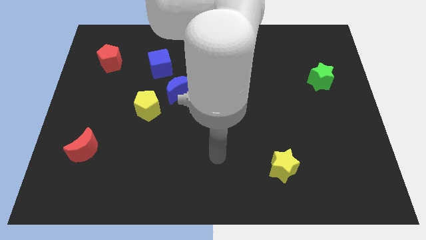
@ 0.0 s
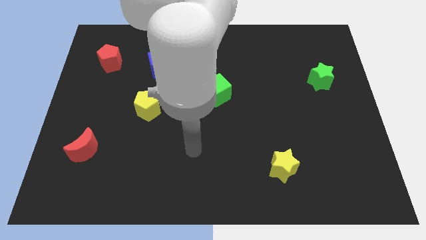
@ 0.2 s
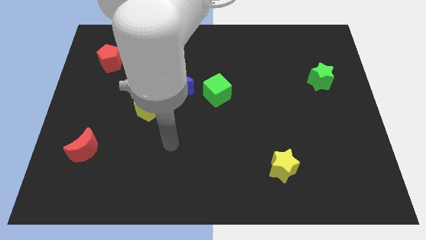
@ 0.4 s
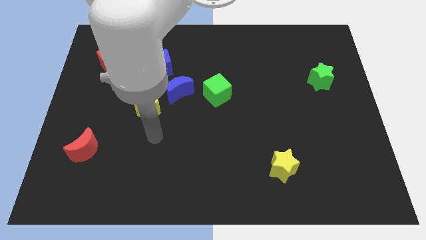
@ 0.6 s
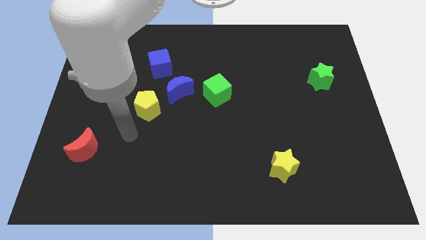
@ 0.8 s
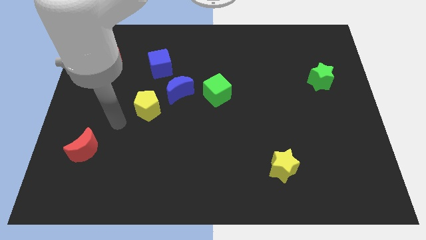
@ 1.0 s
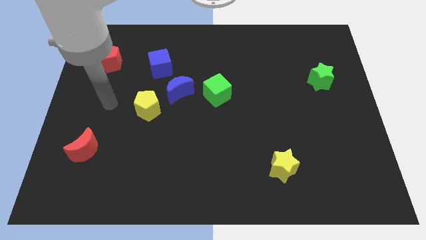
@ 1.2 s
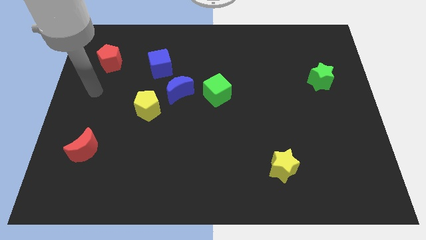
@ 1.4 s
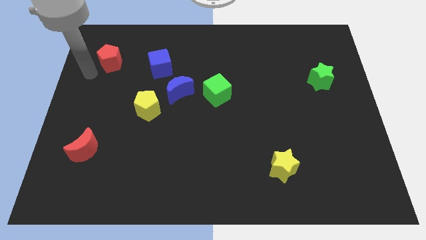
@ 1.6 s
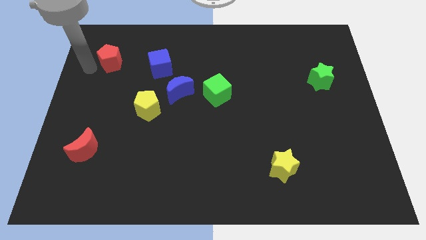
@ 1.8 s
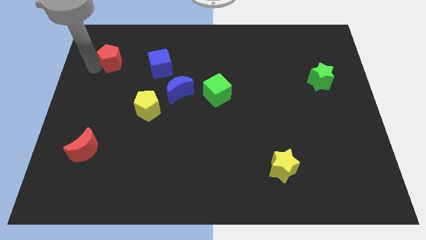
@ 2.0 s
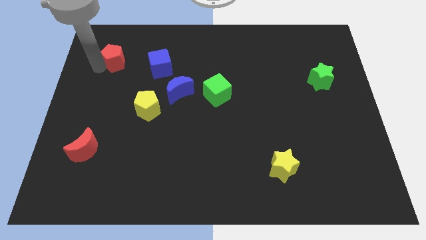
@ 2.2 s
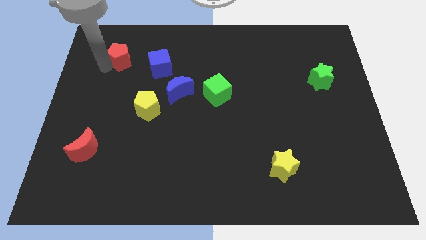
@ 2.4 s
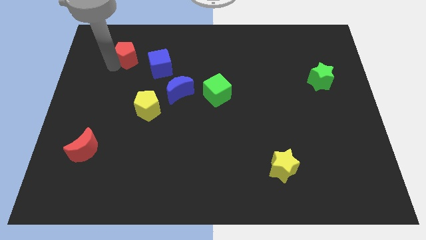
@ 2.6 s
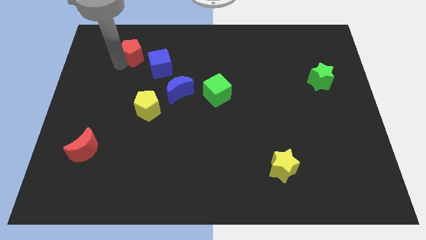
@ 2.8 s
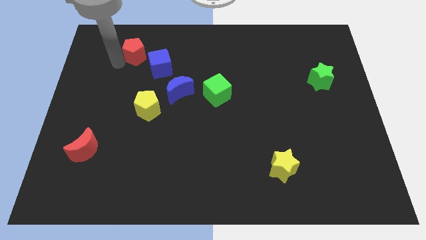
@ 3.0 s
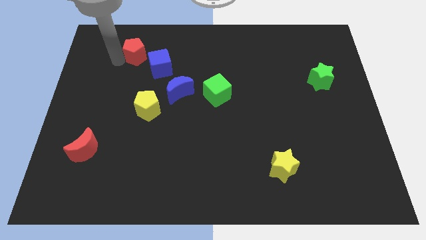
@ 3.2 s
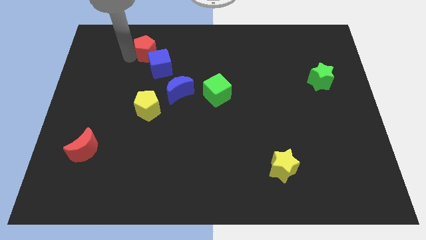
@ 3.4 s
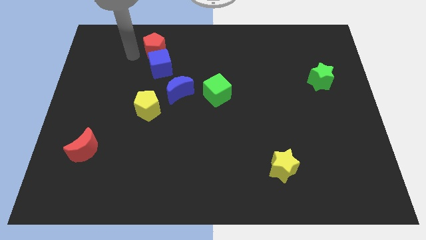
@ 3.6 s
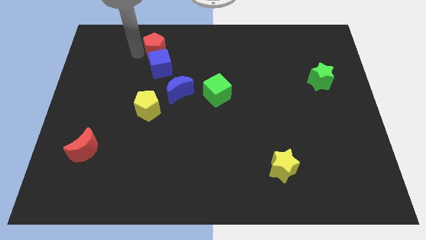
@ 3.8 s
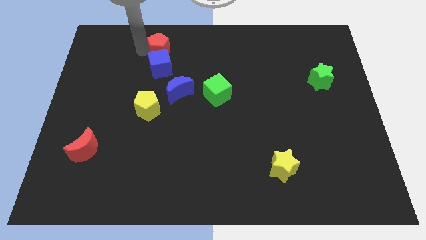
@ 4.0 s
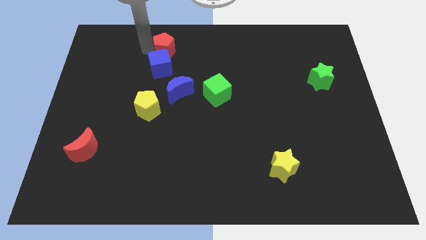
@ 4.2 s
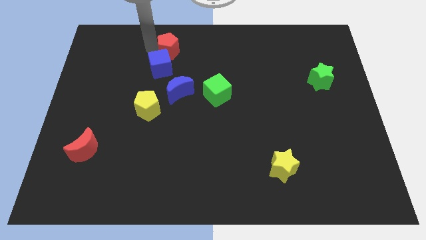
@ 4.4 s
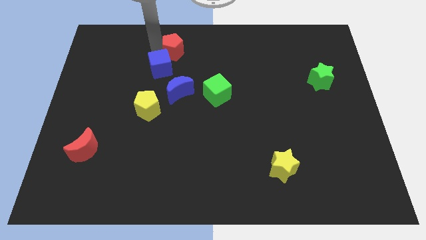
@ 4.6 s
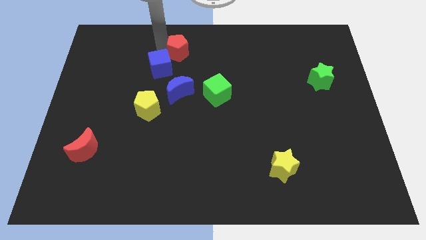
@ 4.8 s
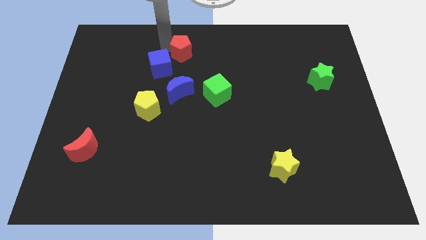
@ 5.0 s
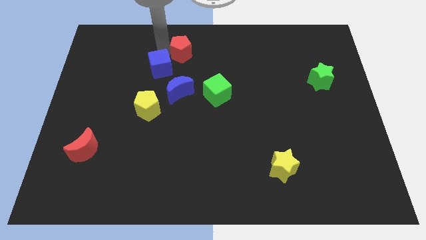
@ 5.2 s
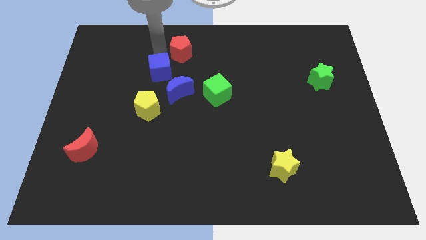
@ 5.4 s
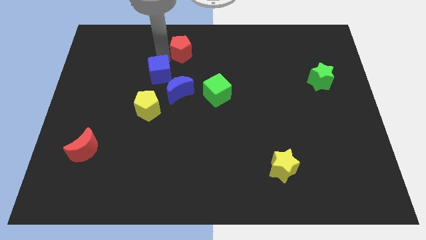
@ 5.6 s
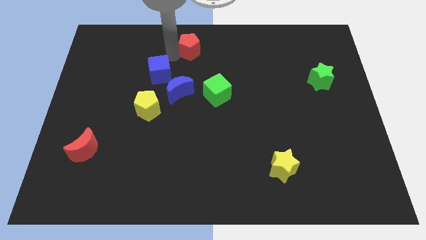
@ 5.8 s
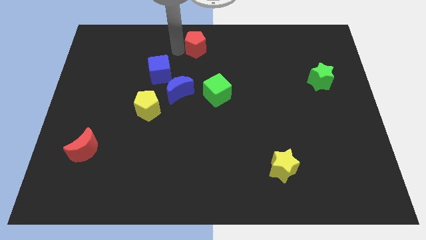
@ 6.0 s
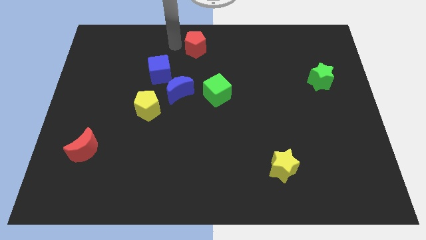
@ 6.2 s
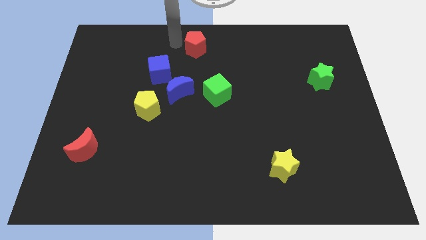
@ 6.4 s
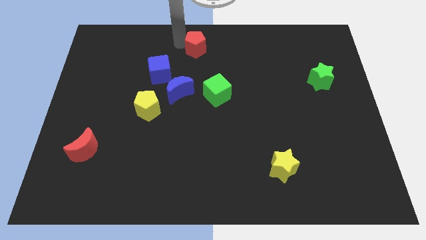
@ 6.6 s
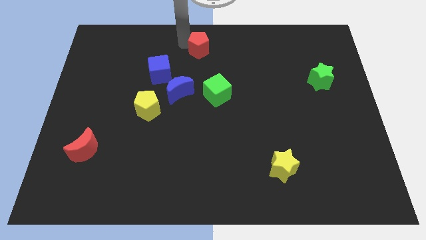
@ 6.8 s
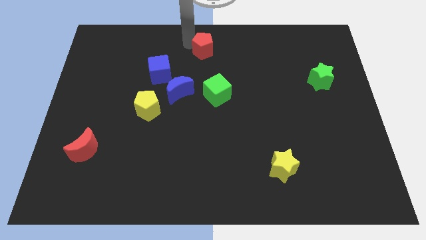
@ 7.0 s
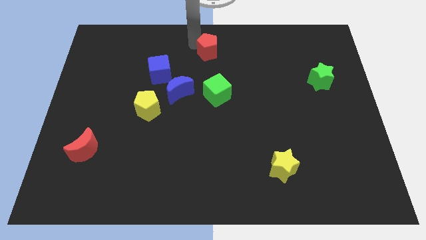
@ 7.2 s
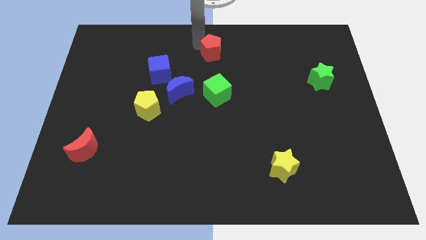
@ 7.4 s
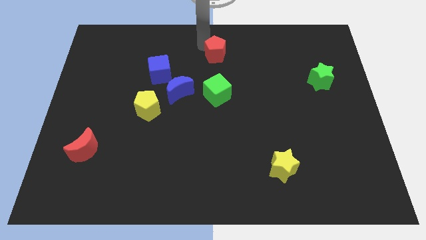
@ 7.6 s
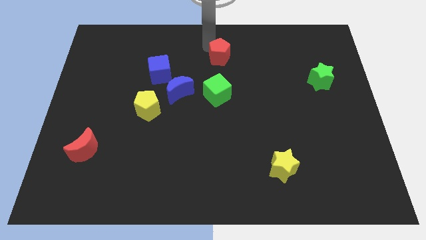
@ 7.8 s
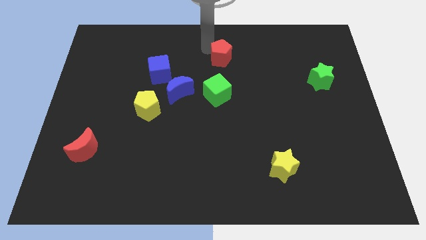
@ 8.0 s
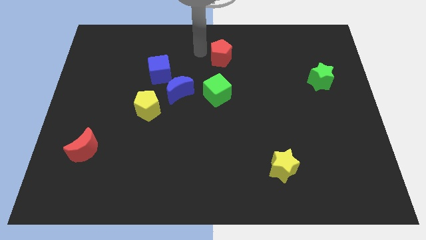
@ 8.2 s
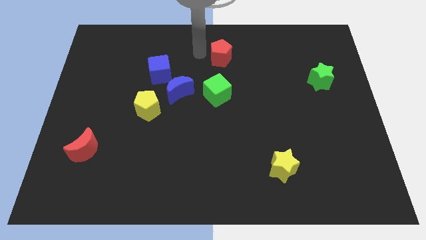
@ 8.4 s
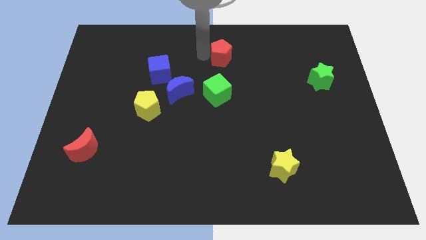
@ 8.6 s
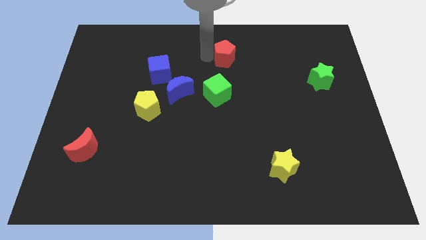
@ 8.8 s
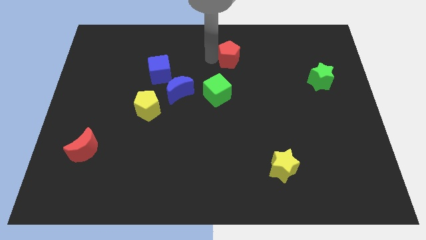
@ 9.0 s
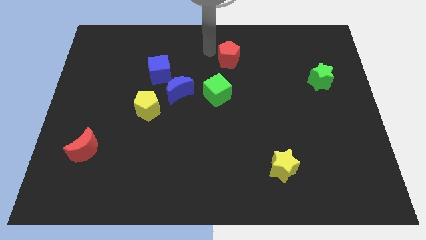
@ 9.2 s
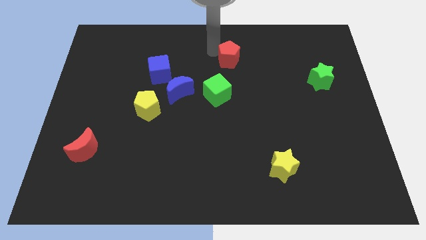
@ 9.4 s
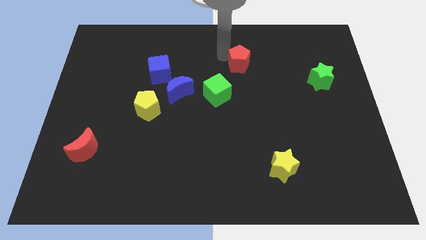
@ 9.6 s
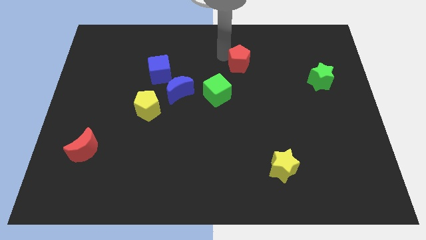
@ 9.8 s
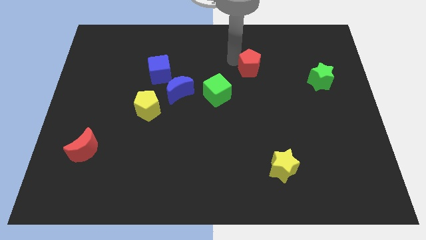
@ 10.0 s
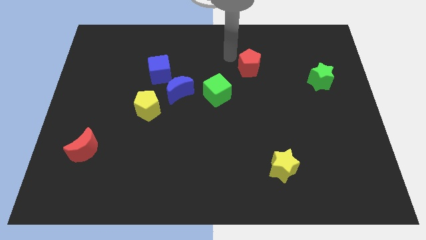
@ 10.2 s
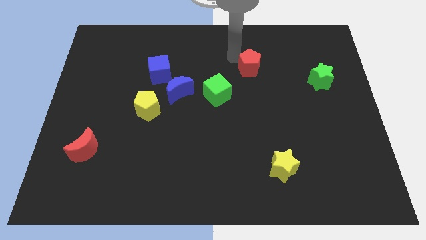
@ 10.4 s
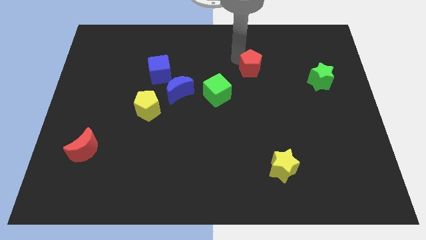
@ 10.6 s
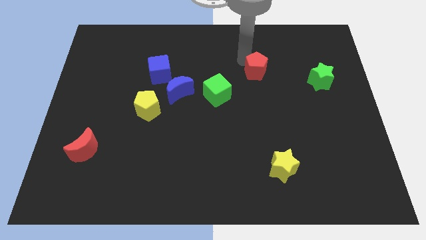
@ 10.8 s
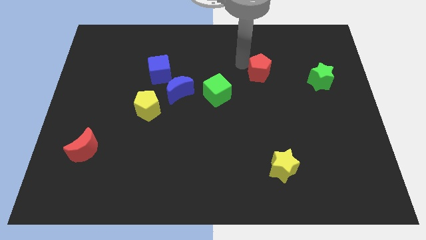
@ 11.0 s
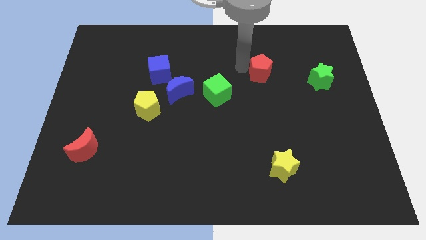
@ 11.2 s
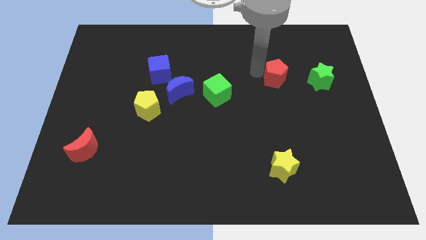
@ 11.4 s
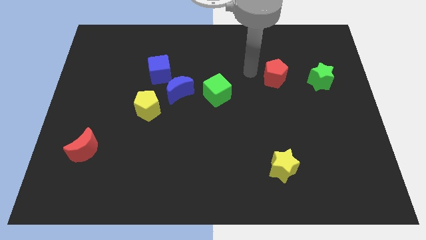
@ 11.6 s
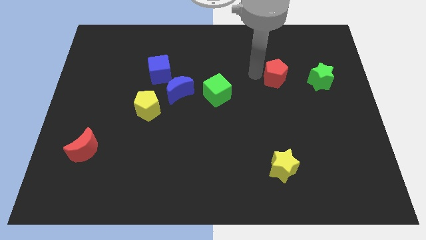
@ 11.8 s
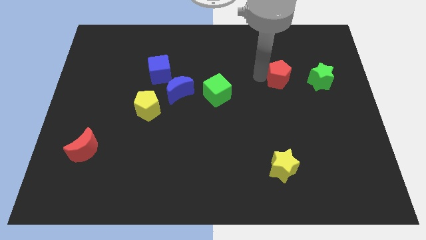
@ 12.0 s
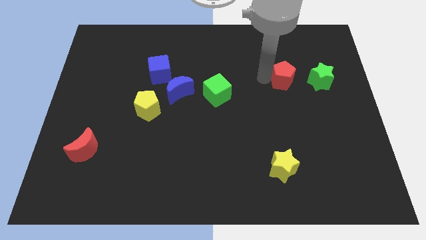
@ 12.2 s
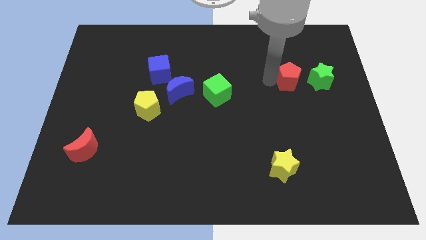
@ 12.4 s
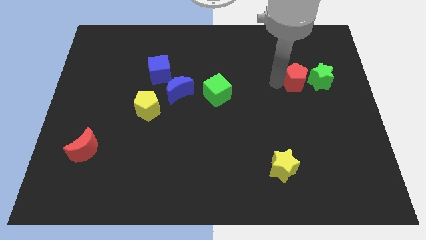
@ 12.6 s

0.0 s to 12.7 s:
move the red pentagon next to the green star

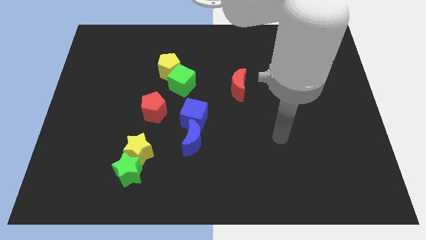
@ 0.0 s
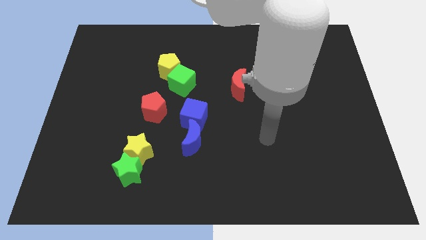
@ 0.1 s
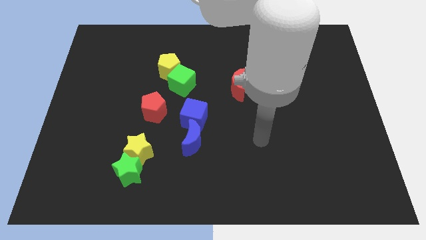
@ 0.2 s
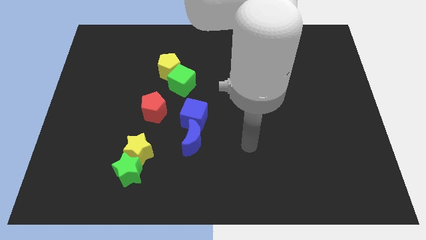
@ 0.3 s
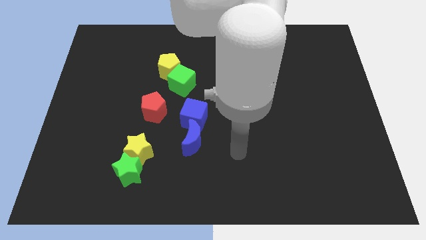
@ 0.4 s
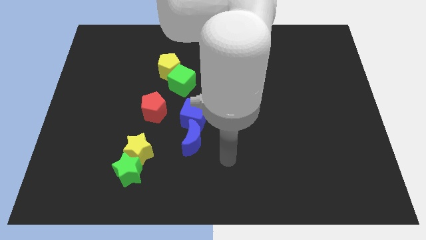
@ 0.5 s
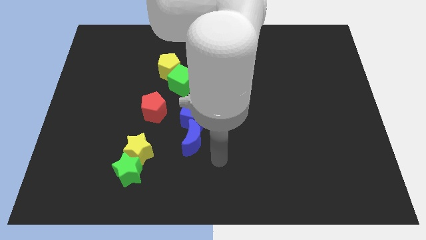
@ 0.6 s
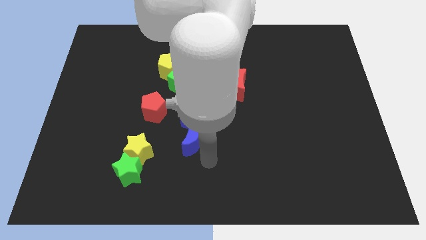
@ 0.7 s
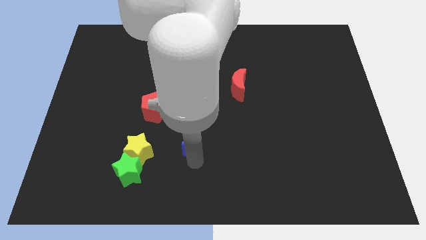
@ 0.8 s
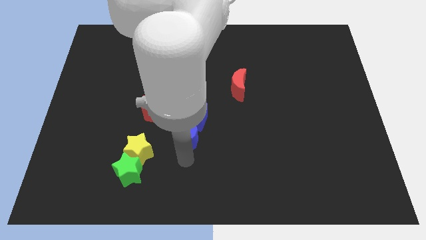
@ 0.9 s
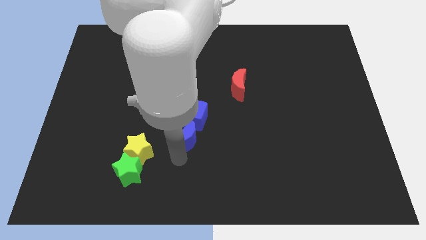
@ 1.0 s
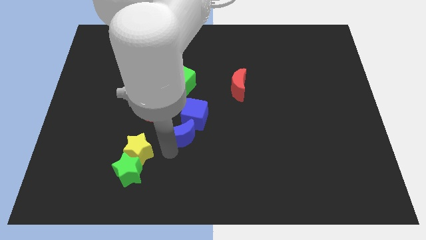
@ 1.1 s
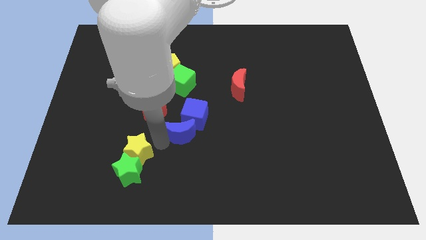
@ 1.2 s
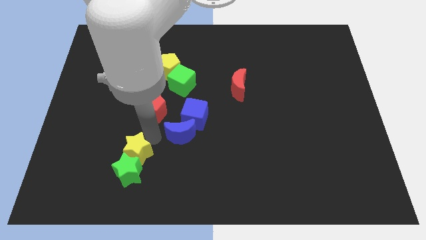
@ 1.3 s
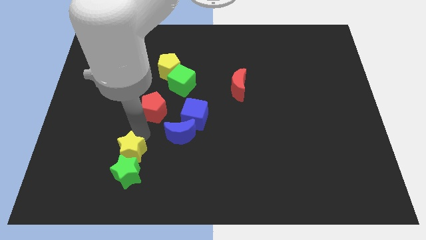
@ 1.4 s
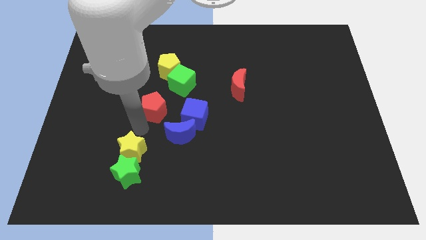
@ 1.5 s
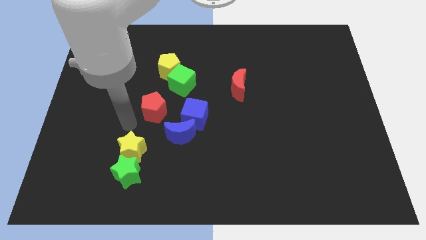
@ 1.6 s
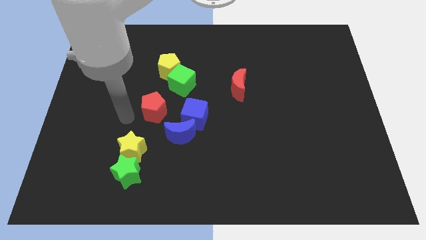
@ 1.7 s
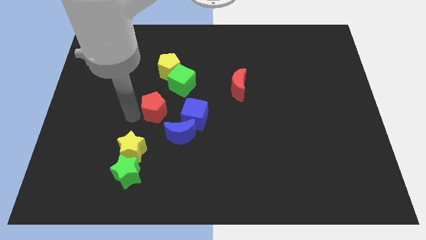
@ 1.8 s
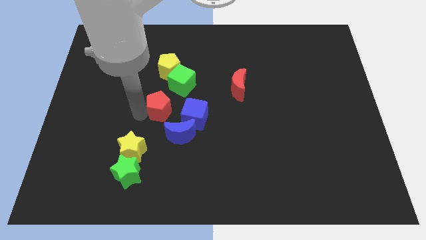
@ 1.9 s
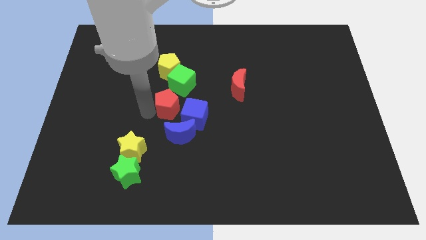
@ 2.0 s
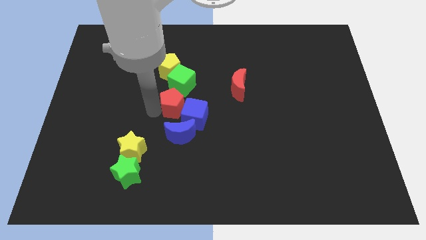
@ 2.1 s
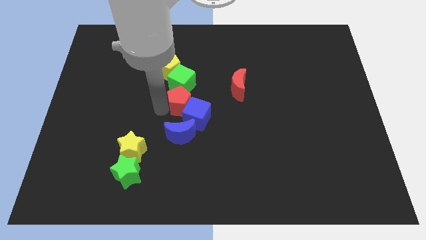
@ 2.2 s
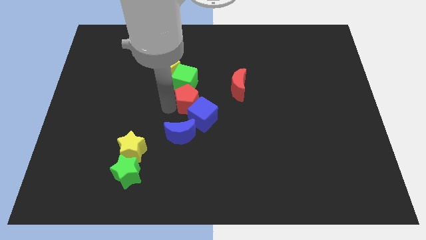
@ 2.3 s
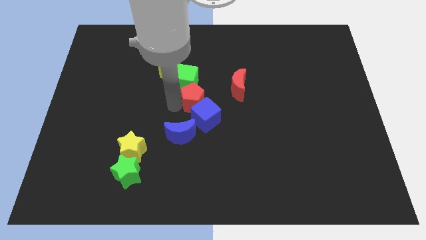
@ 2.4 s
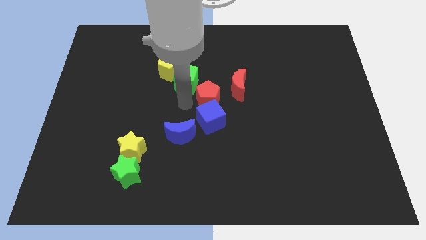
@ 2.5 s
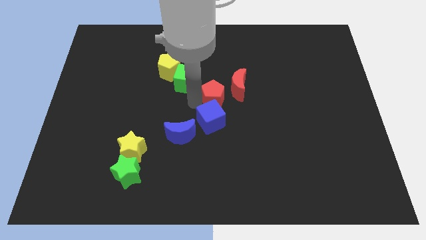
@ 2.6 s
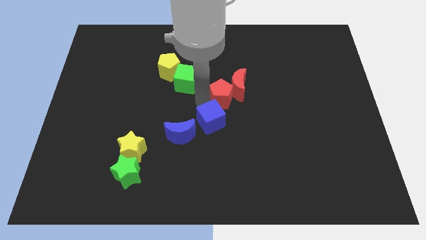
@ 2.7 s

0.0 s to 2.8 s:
push the red pentagon next to the red moon
